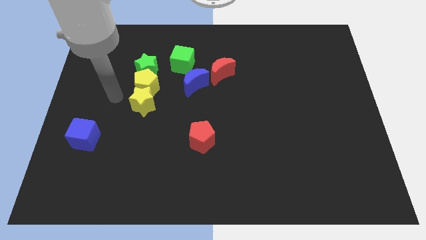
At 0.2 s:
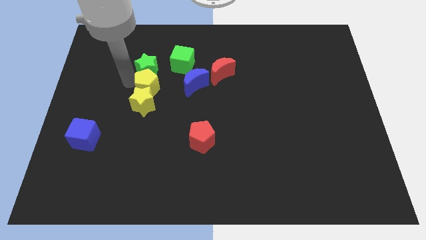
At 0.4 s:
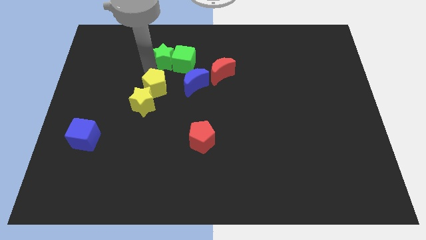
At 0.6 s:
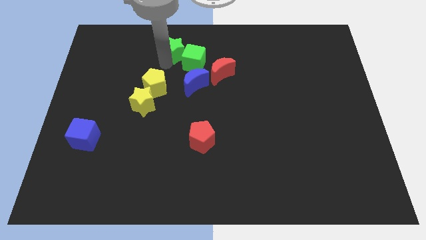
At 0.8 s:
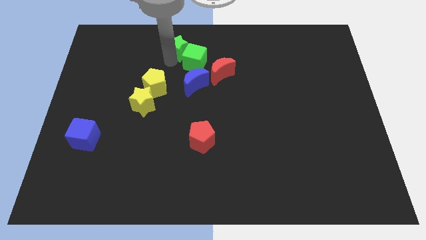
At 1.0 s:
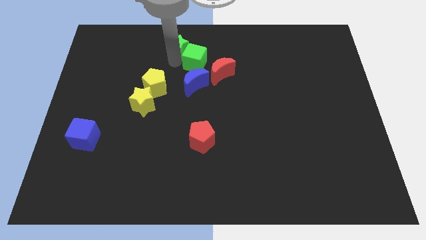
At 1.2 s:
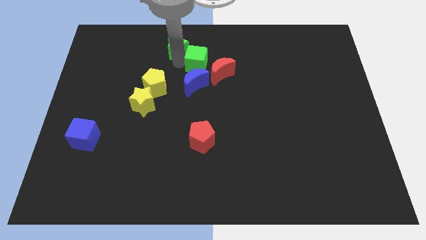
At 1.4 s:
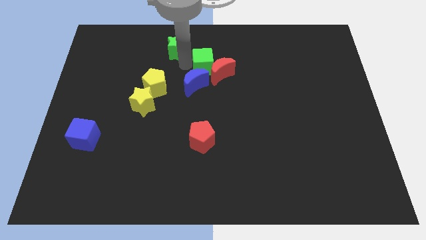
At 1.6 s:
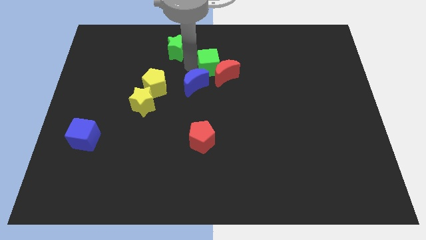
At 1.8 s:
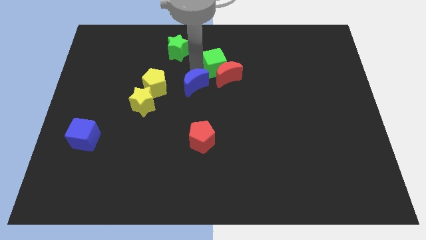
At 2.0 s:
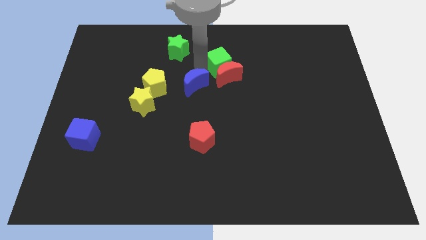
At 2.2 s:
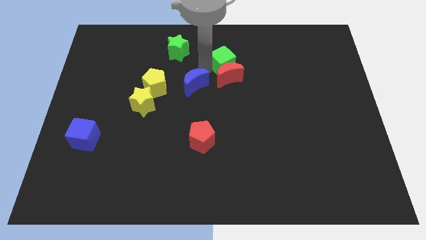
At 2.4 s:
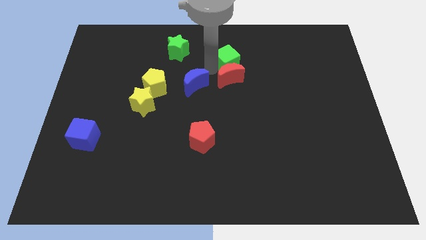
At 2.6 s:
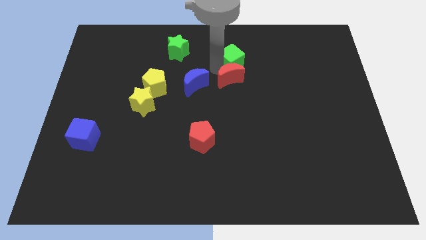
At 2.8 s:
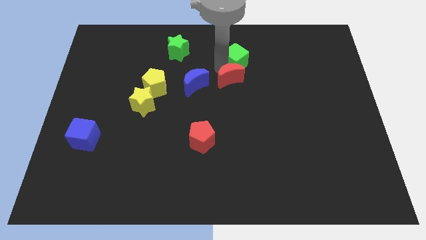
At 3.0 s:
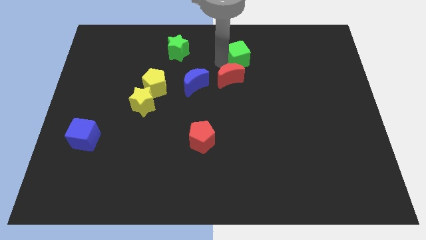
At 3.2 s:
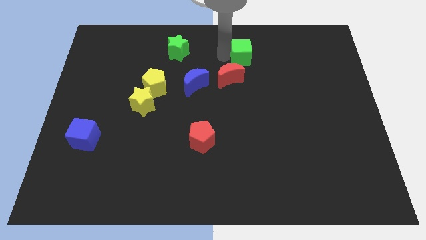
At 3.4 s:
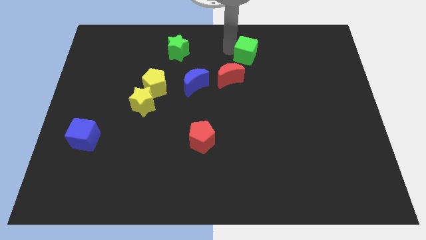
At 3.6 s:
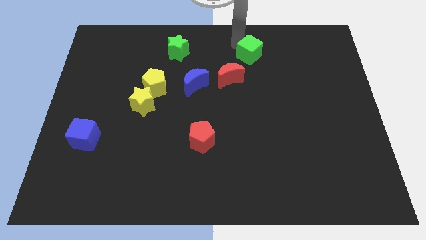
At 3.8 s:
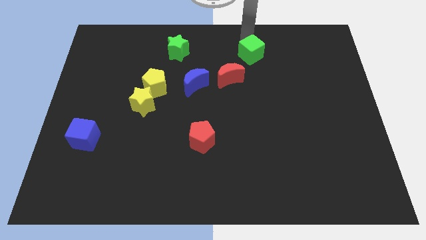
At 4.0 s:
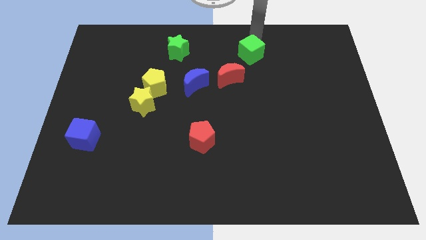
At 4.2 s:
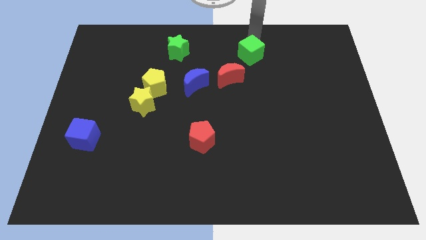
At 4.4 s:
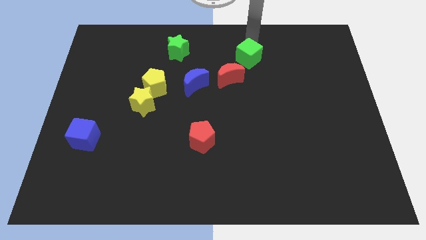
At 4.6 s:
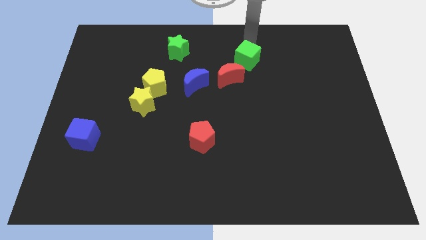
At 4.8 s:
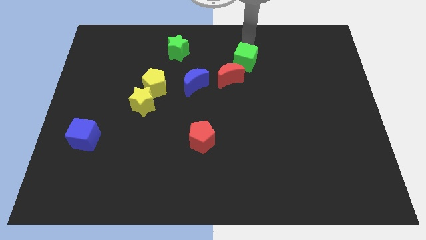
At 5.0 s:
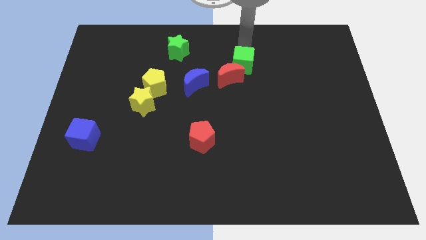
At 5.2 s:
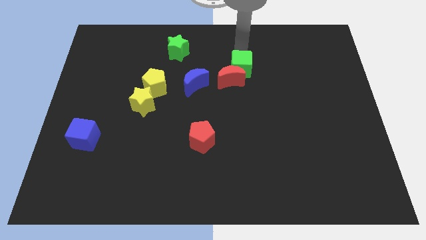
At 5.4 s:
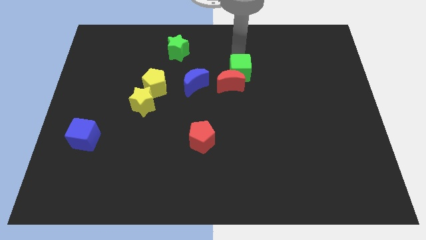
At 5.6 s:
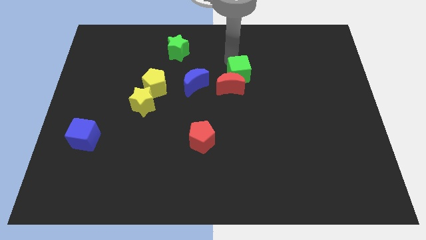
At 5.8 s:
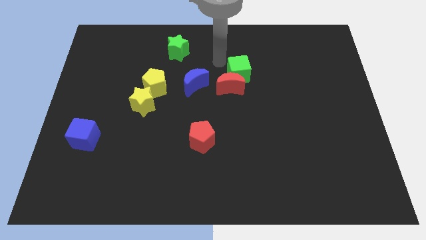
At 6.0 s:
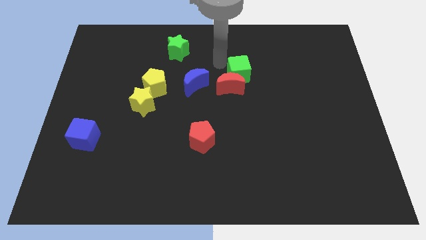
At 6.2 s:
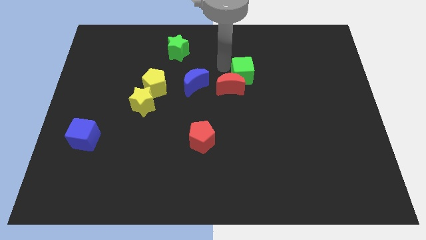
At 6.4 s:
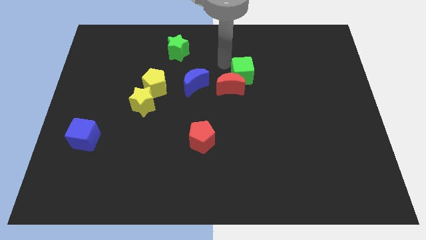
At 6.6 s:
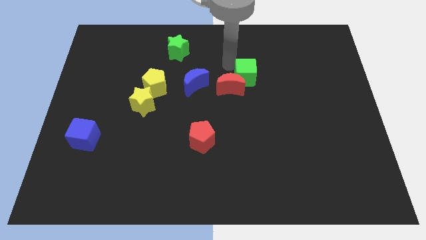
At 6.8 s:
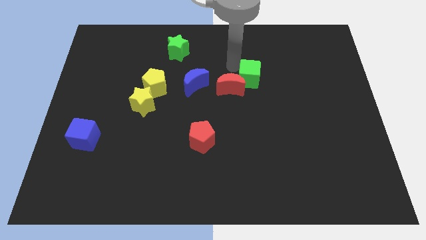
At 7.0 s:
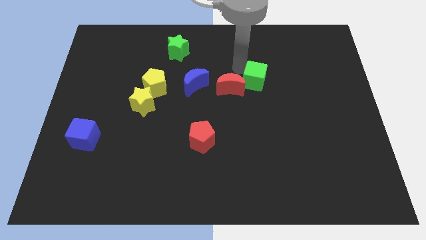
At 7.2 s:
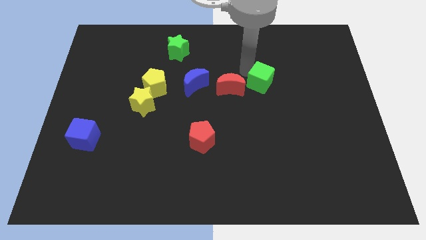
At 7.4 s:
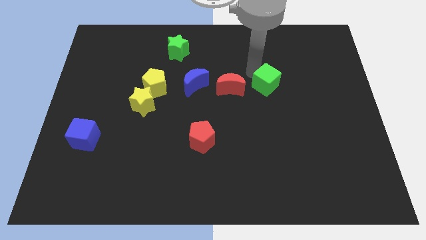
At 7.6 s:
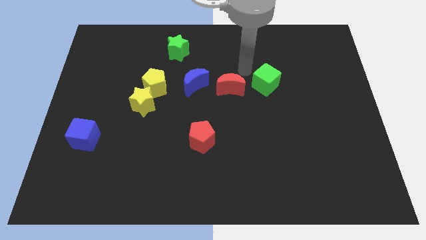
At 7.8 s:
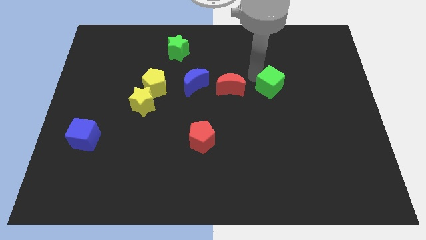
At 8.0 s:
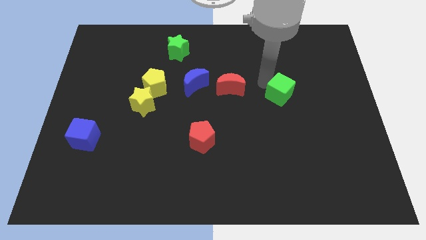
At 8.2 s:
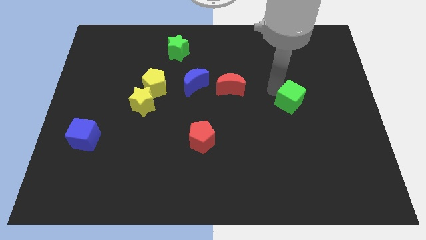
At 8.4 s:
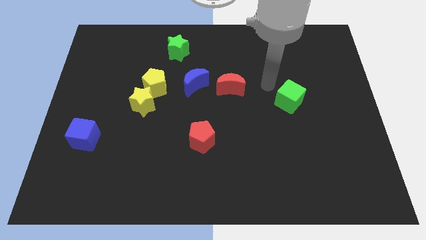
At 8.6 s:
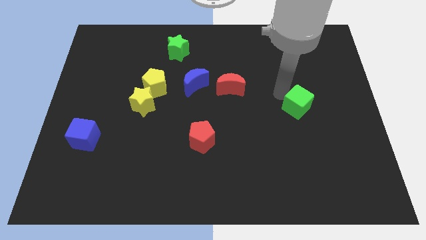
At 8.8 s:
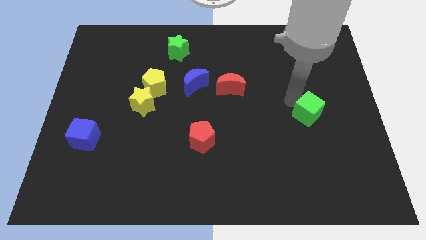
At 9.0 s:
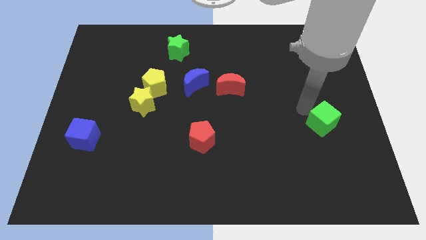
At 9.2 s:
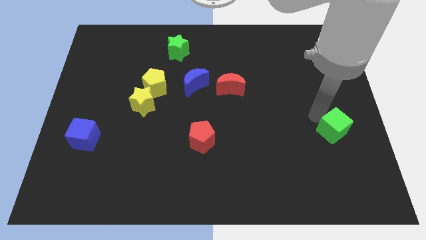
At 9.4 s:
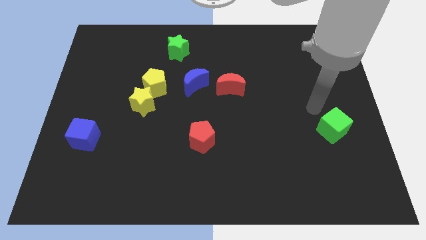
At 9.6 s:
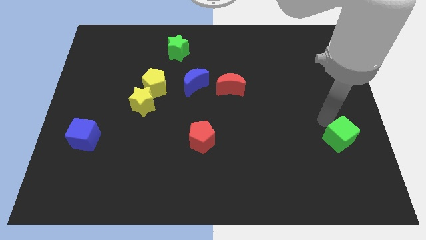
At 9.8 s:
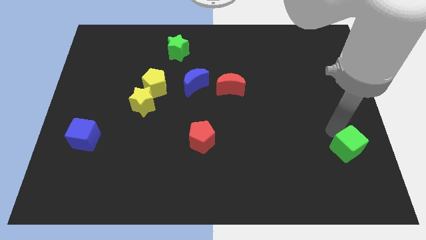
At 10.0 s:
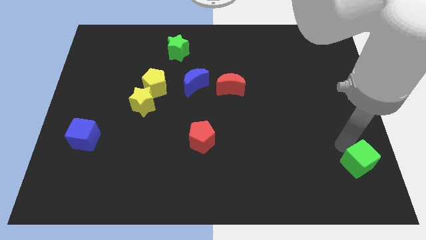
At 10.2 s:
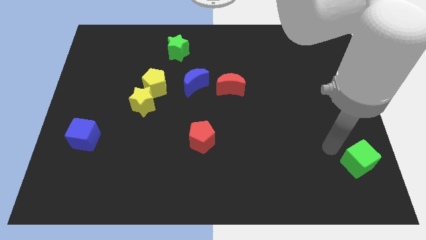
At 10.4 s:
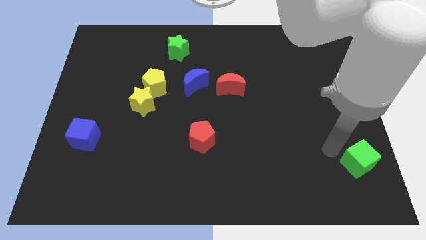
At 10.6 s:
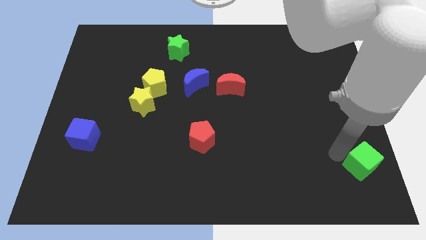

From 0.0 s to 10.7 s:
move the green cube to the lower right corner

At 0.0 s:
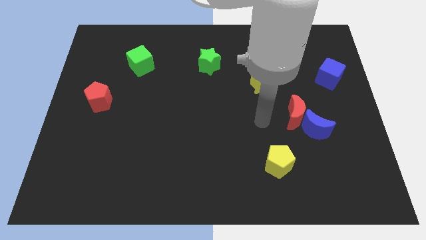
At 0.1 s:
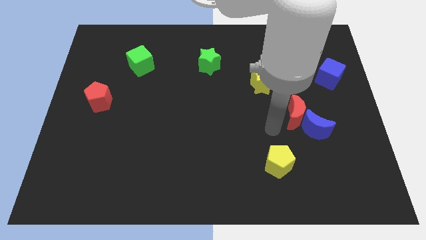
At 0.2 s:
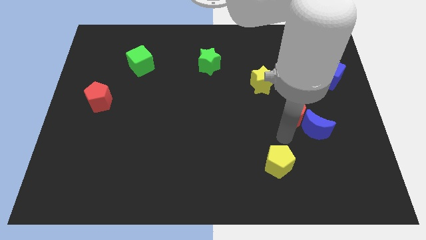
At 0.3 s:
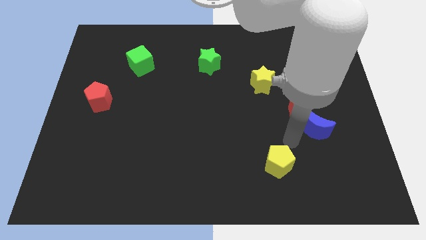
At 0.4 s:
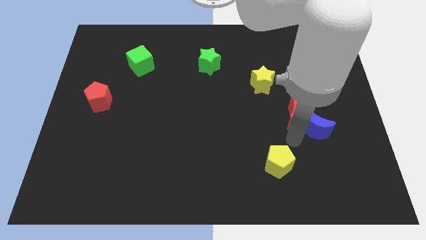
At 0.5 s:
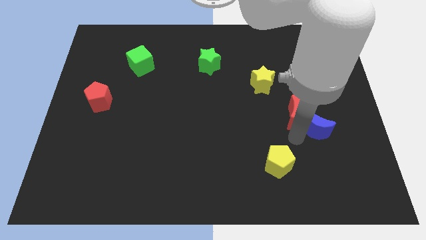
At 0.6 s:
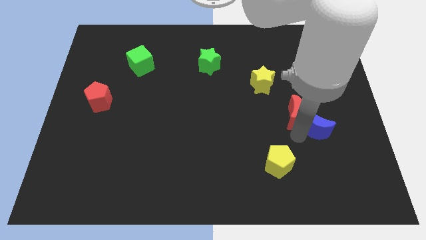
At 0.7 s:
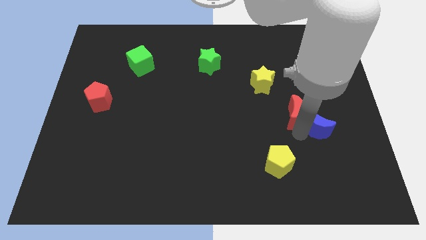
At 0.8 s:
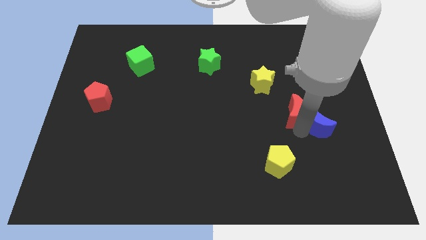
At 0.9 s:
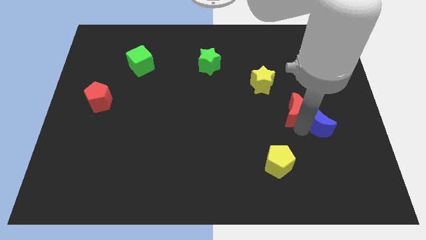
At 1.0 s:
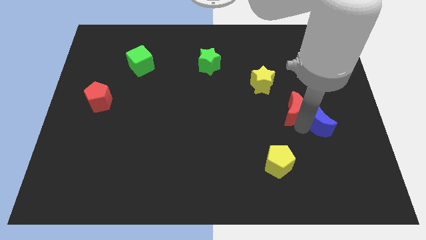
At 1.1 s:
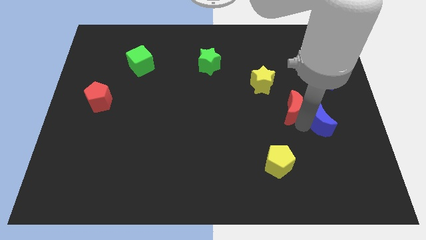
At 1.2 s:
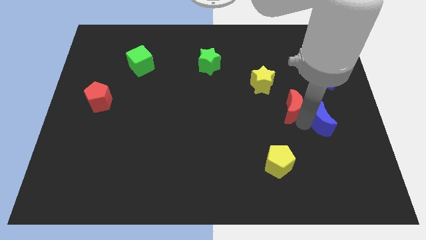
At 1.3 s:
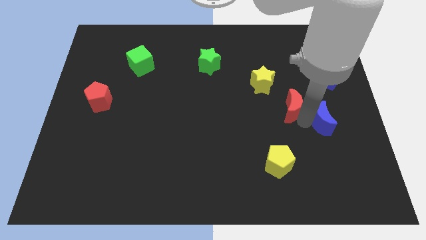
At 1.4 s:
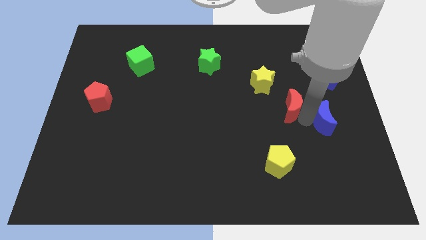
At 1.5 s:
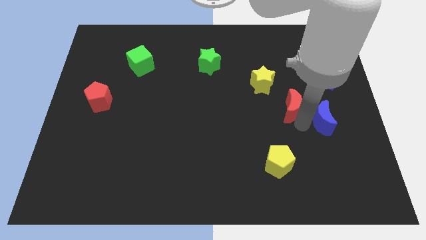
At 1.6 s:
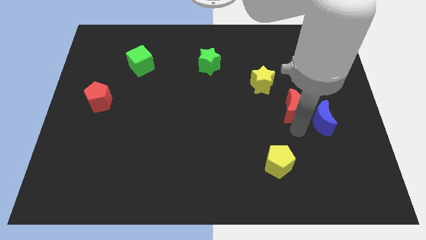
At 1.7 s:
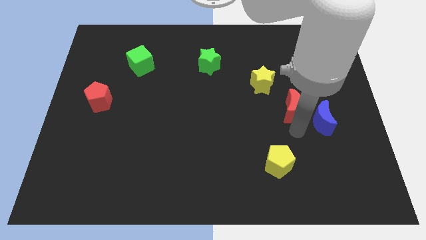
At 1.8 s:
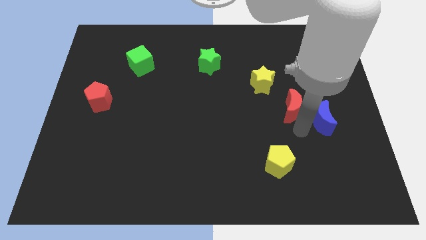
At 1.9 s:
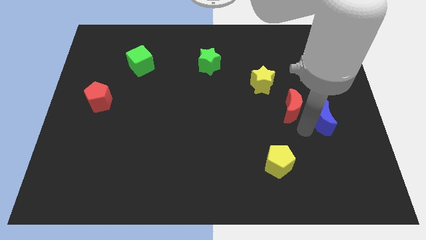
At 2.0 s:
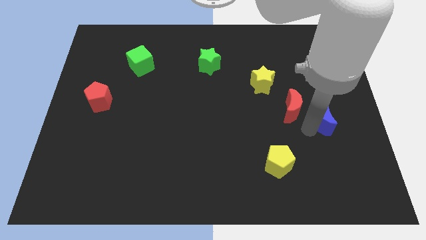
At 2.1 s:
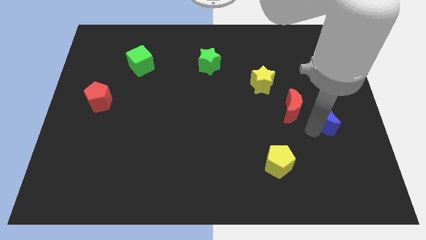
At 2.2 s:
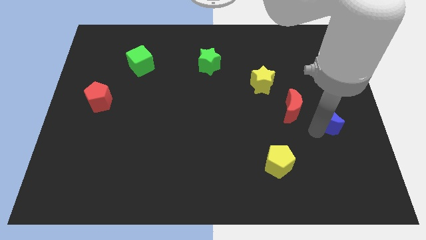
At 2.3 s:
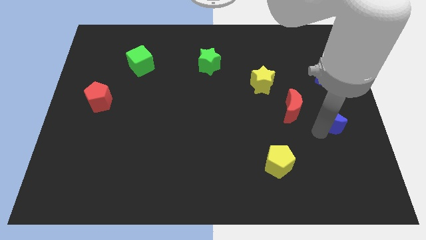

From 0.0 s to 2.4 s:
move the blue moon to the right side of the board
